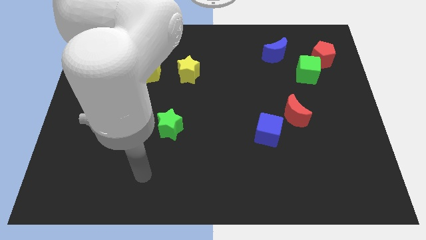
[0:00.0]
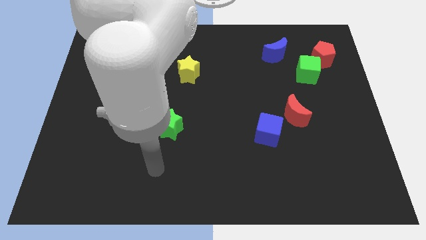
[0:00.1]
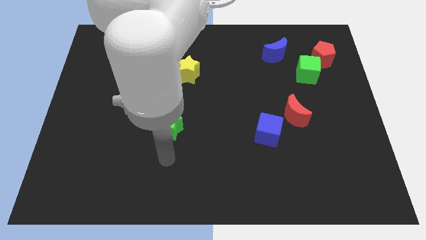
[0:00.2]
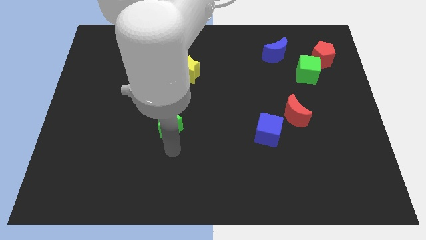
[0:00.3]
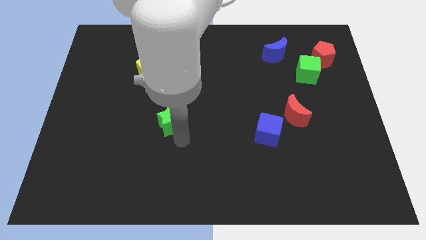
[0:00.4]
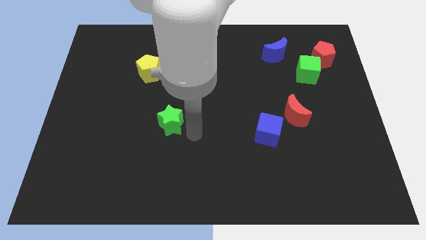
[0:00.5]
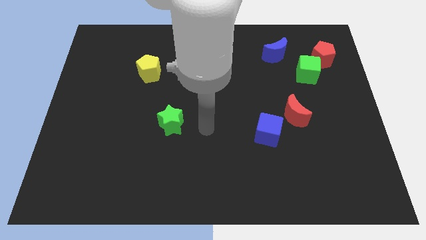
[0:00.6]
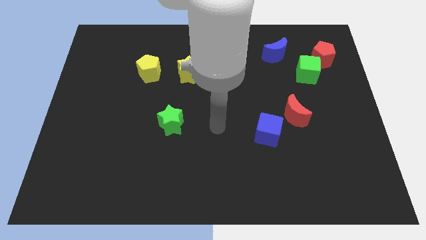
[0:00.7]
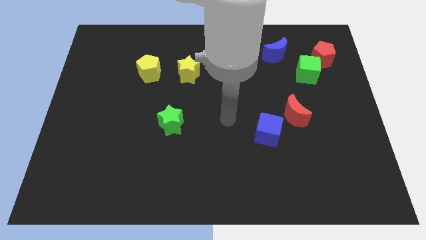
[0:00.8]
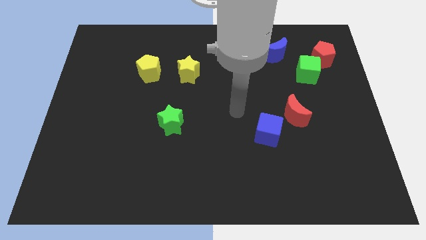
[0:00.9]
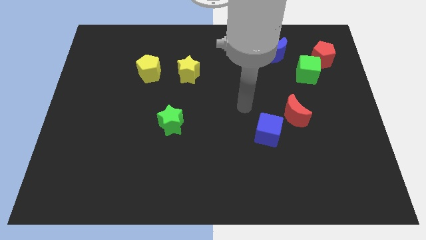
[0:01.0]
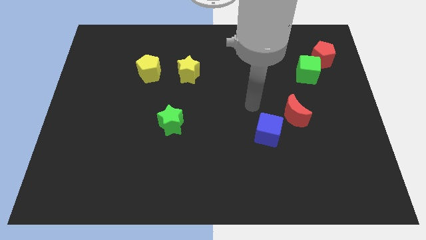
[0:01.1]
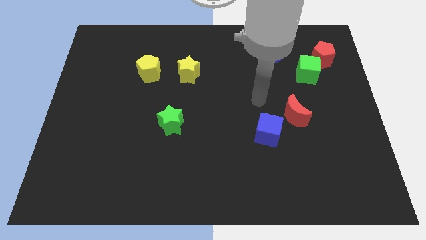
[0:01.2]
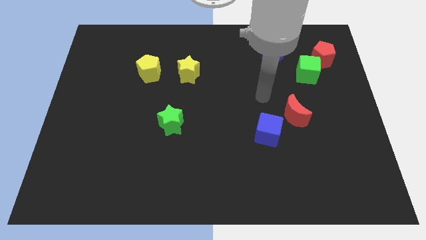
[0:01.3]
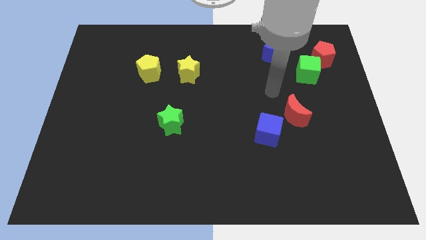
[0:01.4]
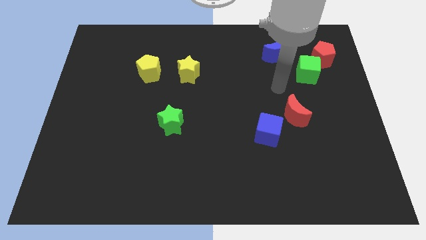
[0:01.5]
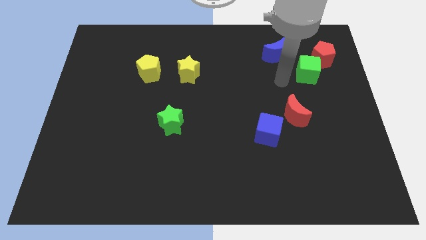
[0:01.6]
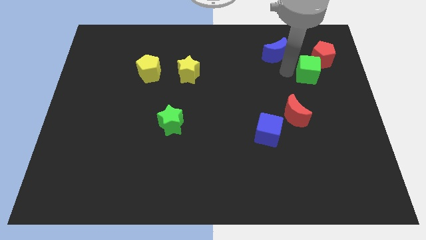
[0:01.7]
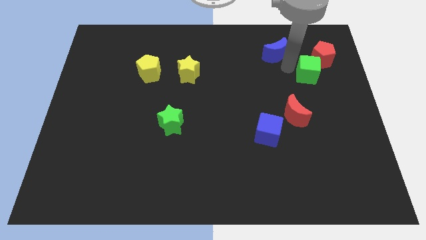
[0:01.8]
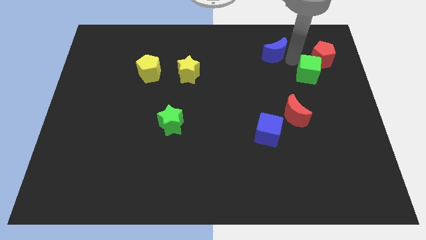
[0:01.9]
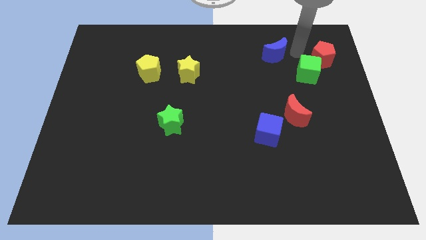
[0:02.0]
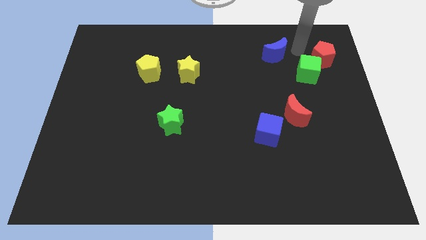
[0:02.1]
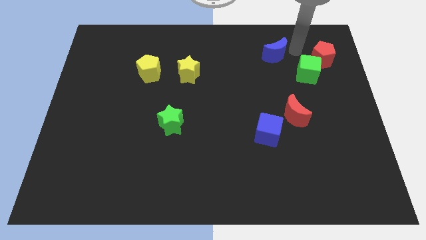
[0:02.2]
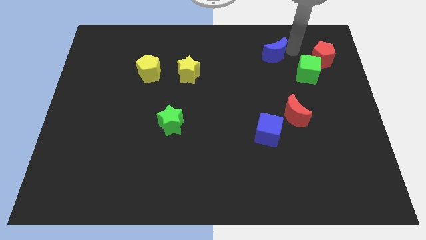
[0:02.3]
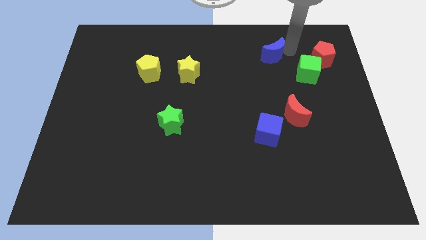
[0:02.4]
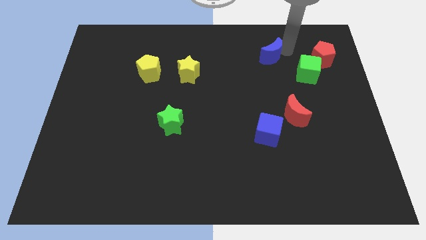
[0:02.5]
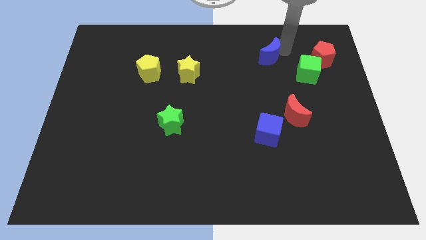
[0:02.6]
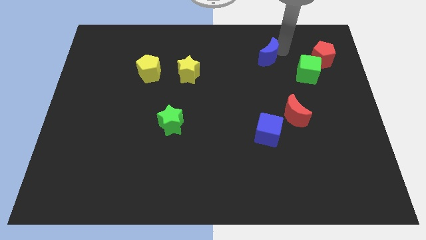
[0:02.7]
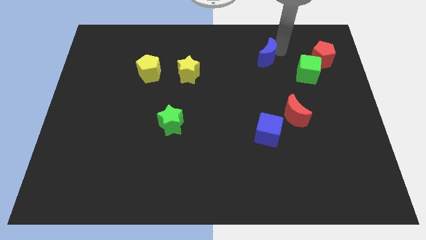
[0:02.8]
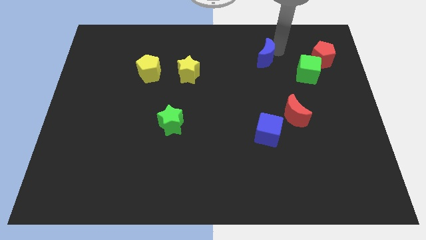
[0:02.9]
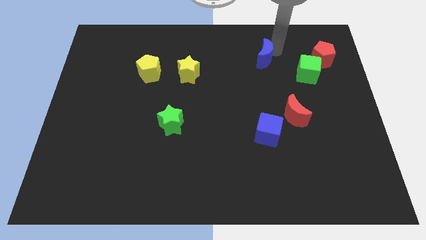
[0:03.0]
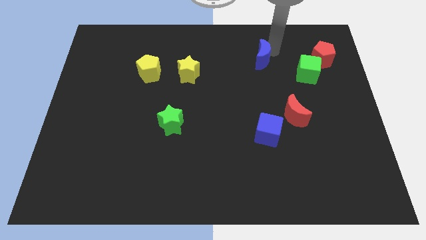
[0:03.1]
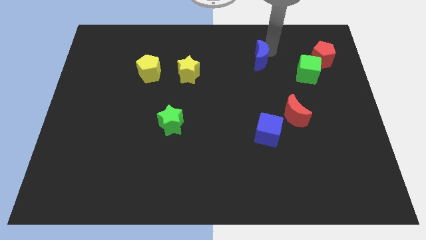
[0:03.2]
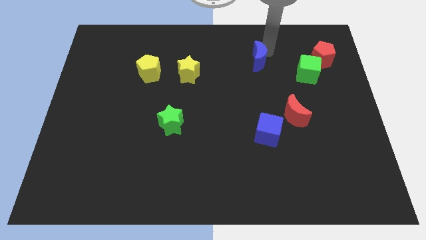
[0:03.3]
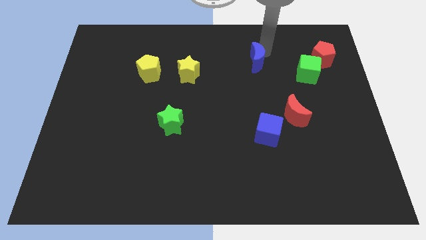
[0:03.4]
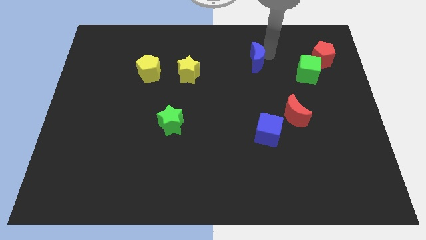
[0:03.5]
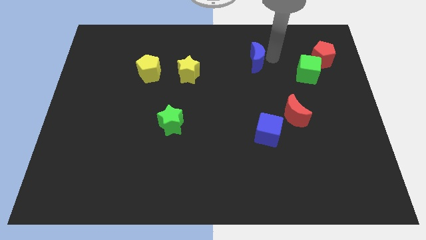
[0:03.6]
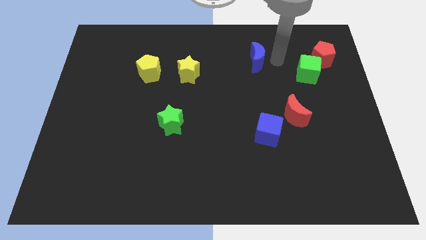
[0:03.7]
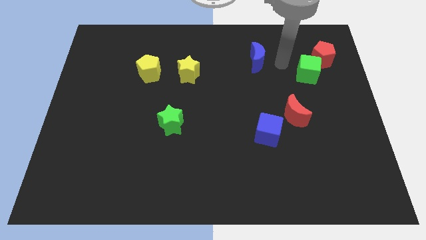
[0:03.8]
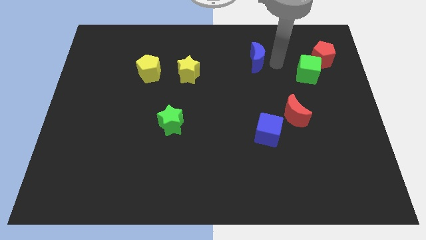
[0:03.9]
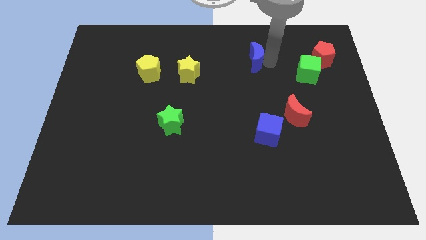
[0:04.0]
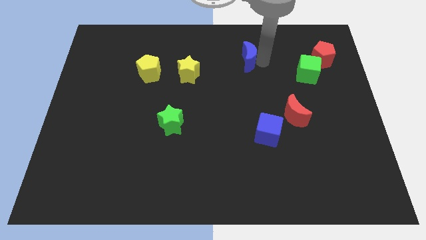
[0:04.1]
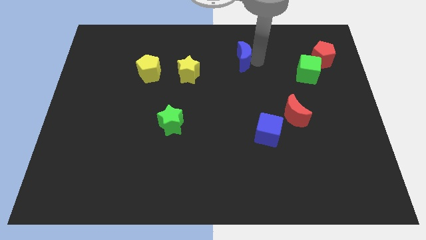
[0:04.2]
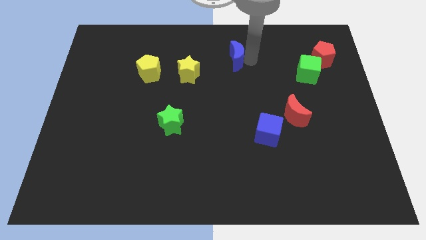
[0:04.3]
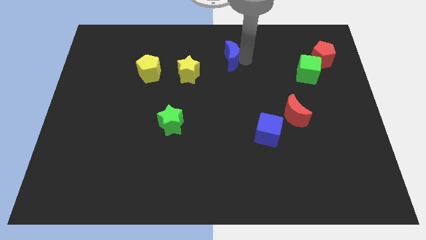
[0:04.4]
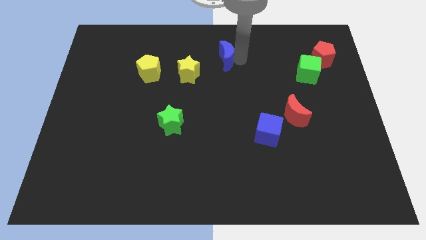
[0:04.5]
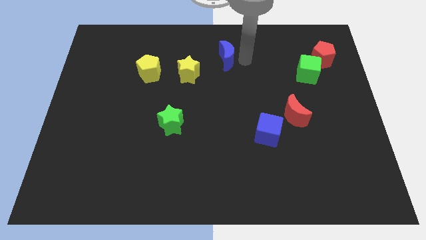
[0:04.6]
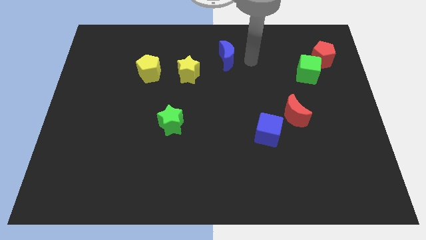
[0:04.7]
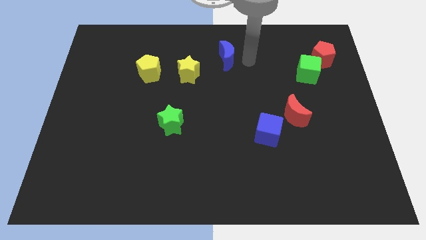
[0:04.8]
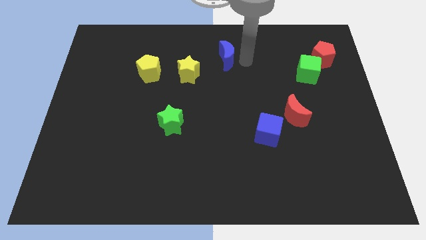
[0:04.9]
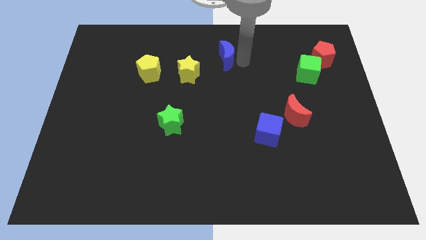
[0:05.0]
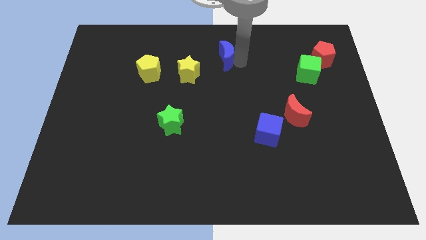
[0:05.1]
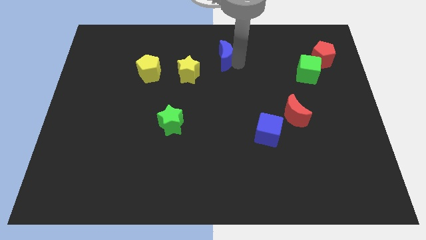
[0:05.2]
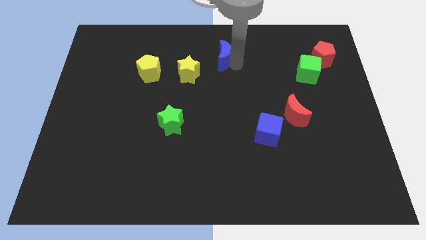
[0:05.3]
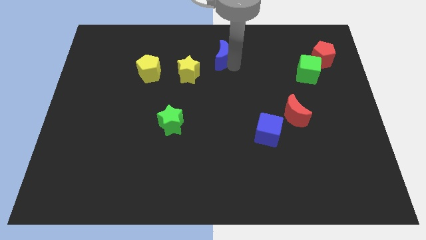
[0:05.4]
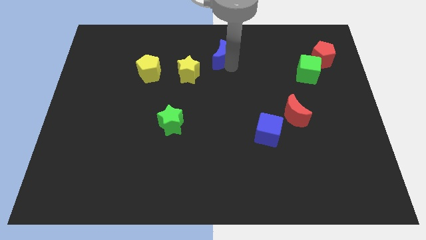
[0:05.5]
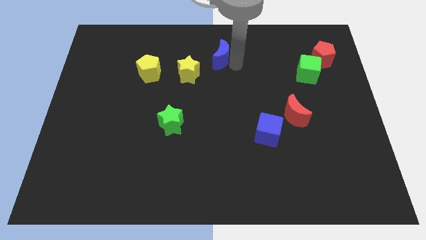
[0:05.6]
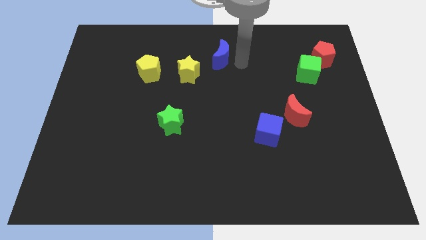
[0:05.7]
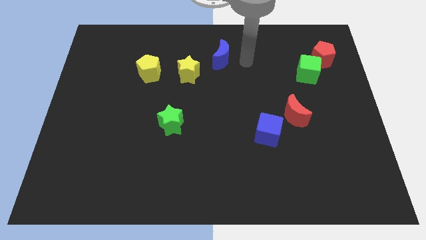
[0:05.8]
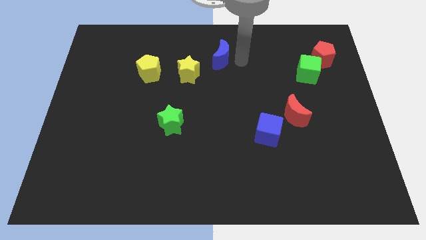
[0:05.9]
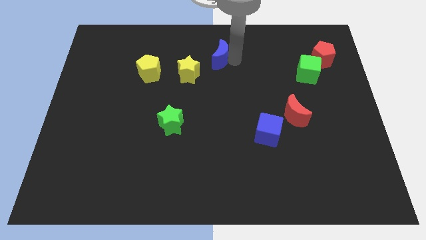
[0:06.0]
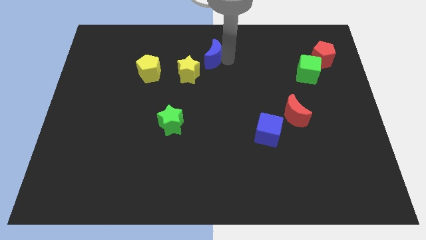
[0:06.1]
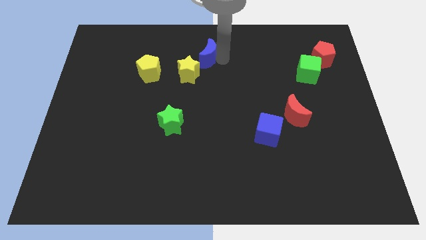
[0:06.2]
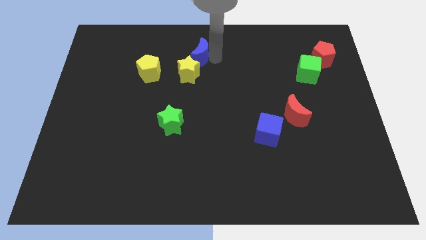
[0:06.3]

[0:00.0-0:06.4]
move the blue moon left

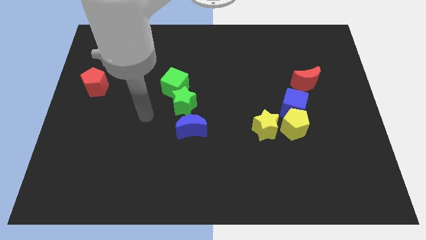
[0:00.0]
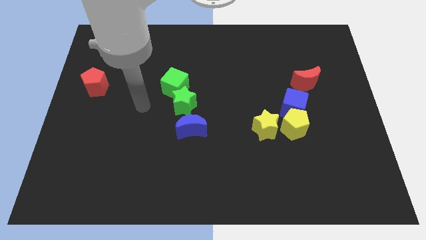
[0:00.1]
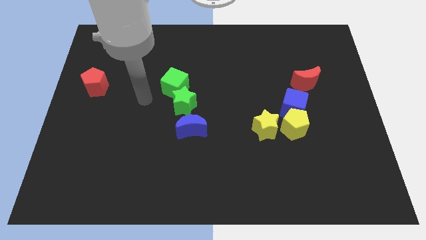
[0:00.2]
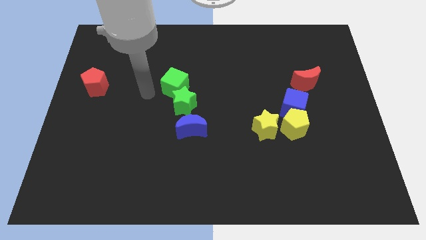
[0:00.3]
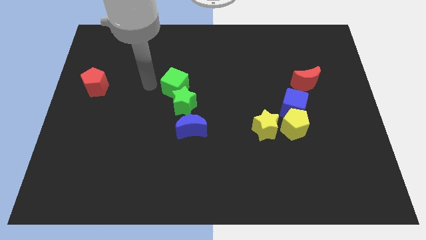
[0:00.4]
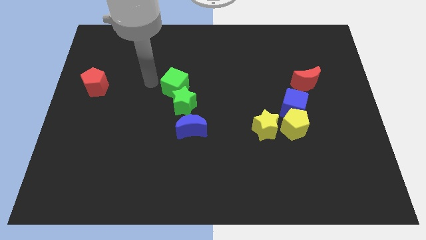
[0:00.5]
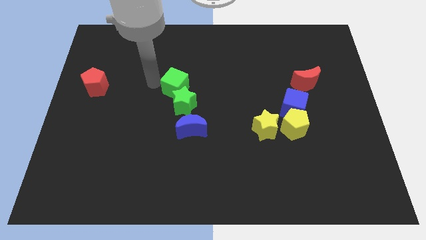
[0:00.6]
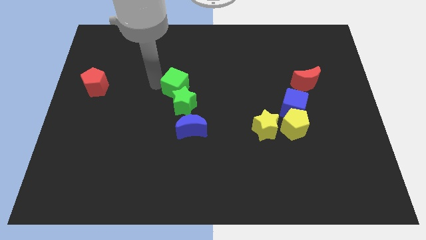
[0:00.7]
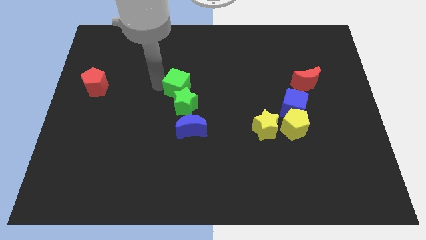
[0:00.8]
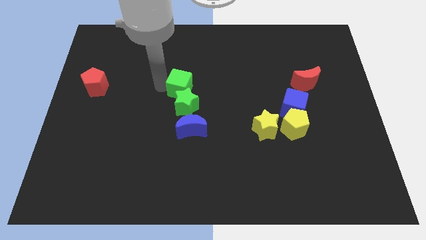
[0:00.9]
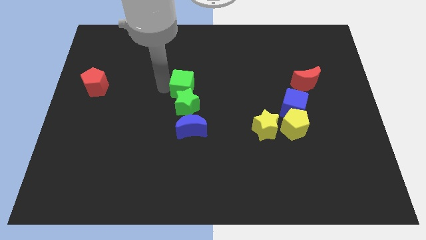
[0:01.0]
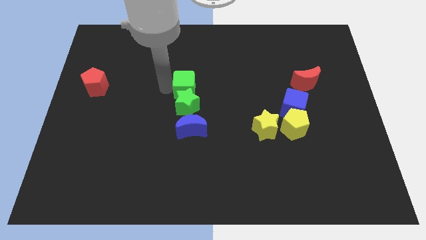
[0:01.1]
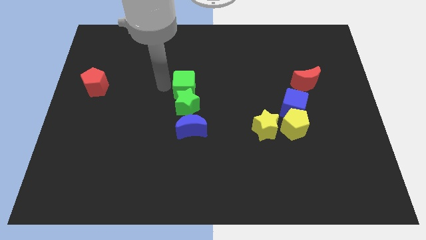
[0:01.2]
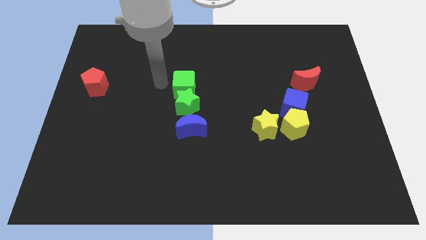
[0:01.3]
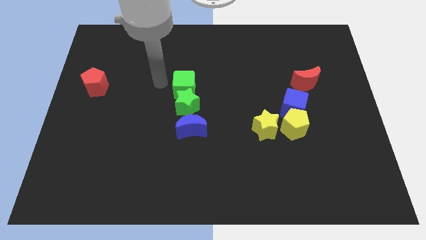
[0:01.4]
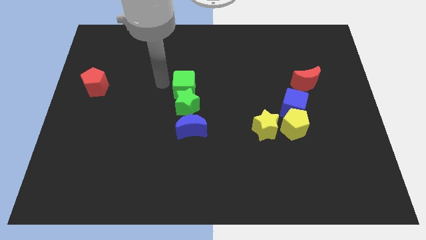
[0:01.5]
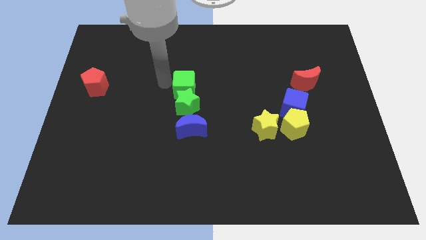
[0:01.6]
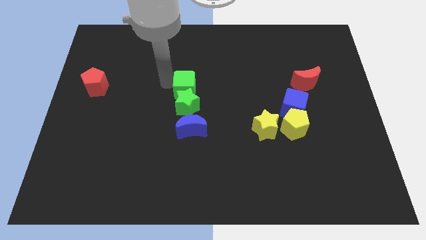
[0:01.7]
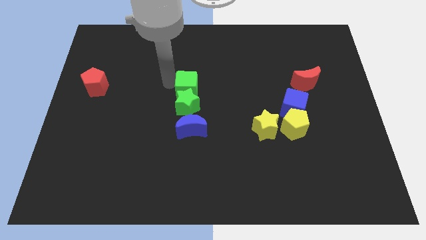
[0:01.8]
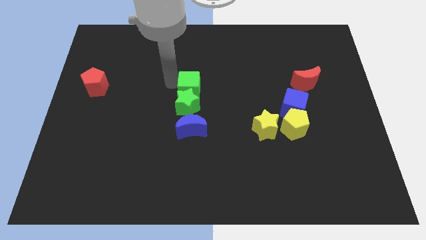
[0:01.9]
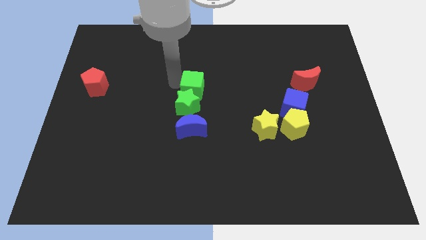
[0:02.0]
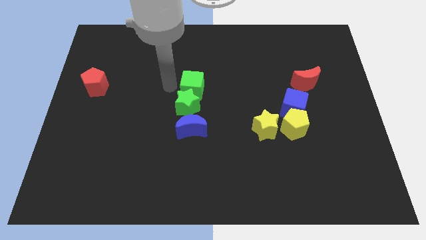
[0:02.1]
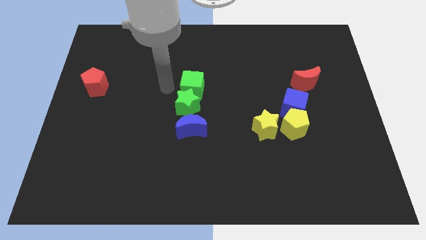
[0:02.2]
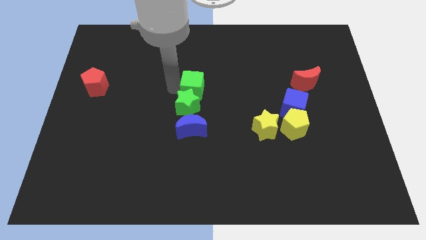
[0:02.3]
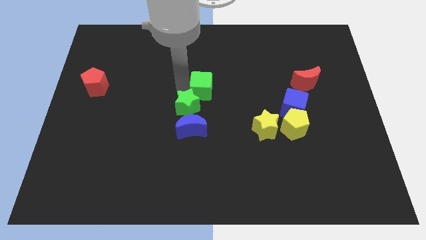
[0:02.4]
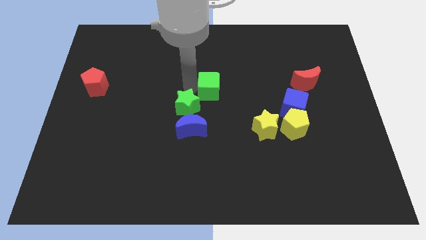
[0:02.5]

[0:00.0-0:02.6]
slightly push the green cube right
